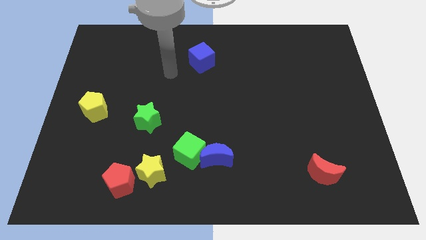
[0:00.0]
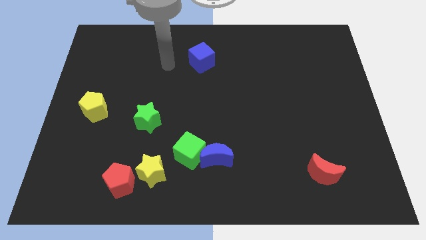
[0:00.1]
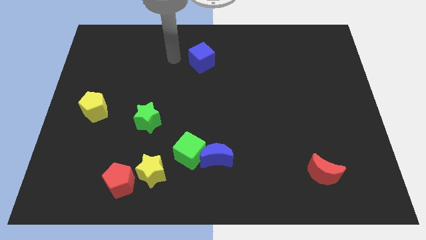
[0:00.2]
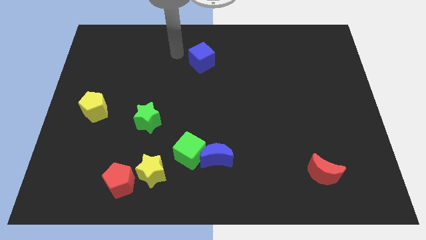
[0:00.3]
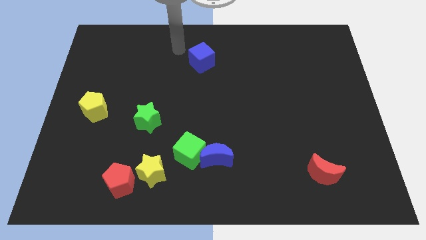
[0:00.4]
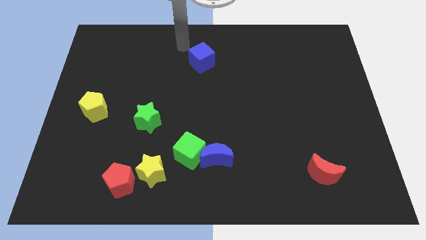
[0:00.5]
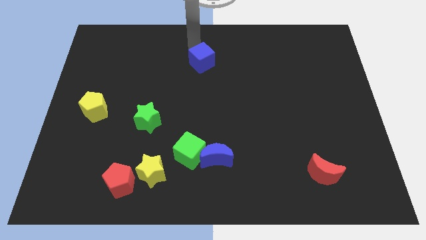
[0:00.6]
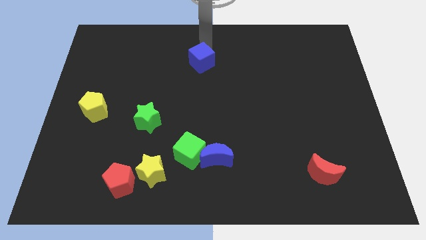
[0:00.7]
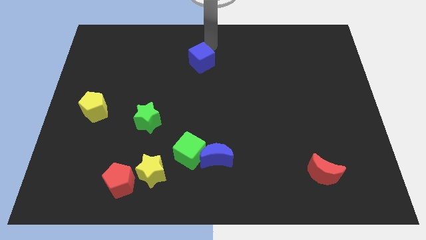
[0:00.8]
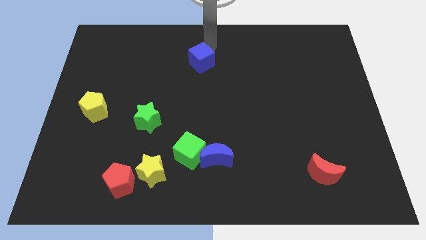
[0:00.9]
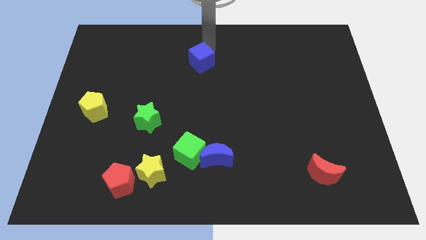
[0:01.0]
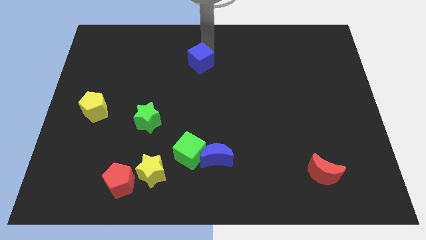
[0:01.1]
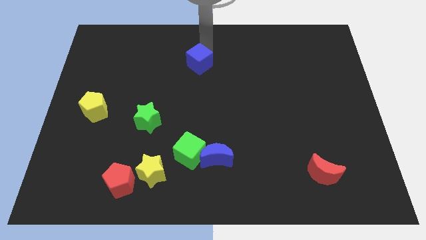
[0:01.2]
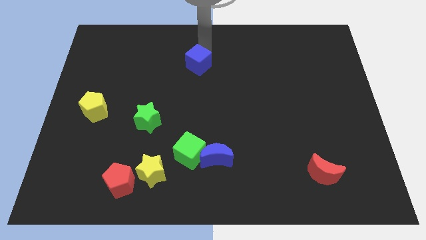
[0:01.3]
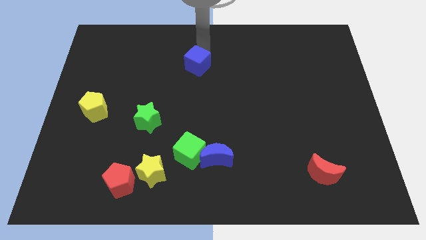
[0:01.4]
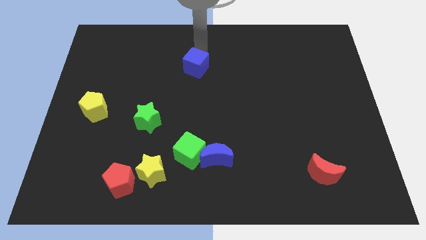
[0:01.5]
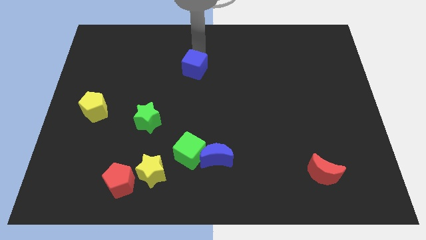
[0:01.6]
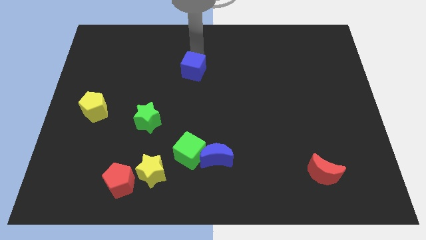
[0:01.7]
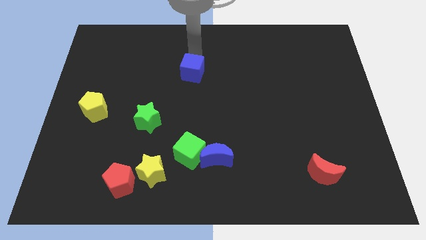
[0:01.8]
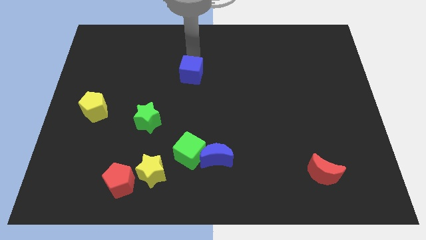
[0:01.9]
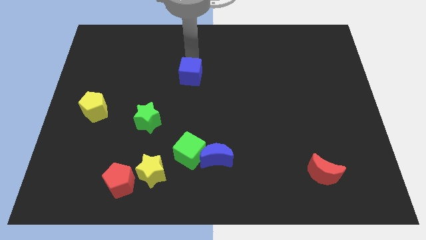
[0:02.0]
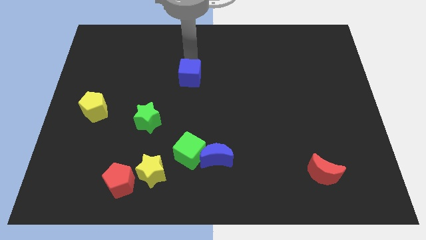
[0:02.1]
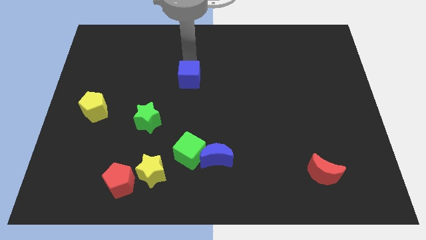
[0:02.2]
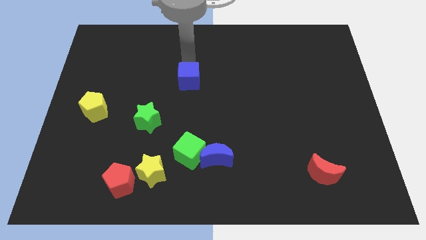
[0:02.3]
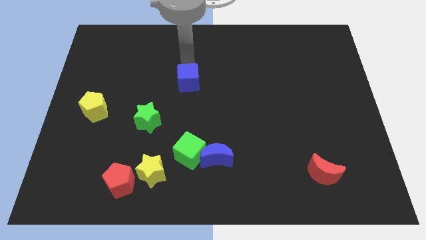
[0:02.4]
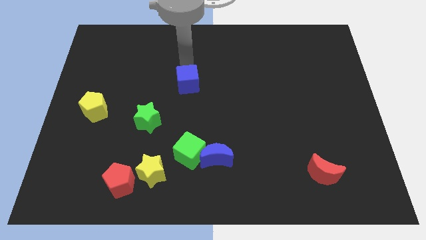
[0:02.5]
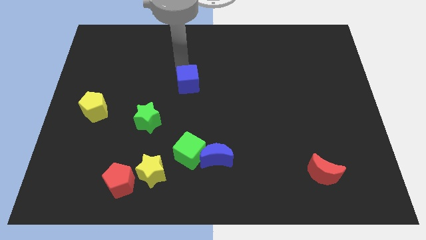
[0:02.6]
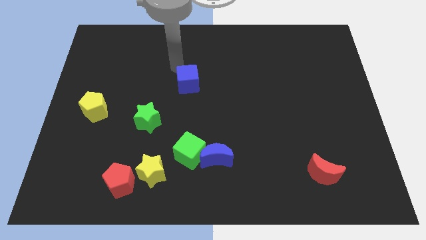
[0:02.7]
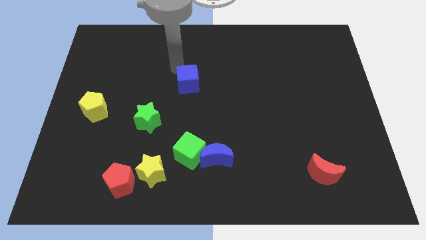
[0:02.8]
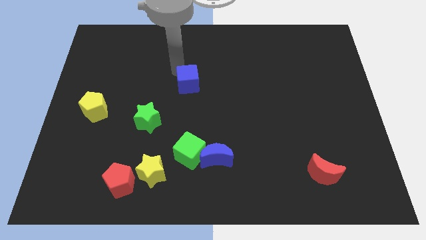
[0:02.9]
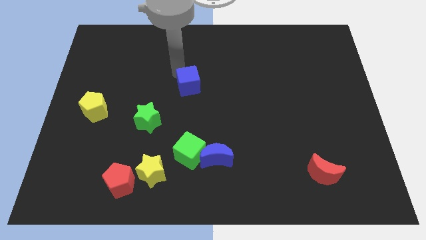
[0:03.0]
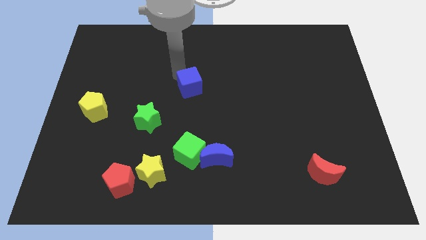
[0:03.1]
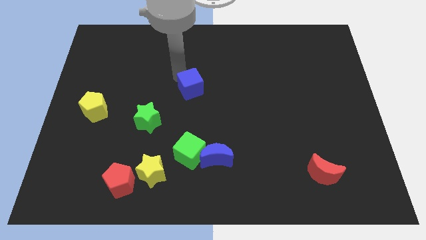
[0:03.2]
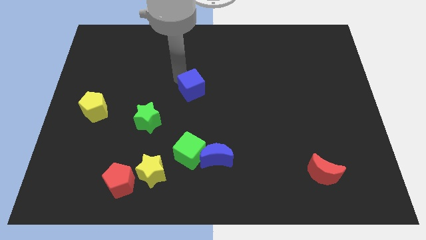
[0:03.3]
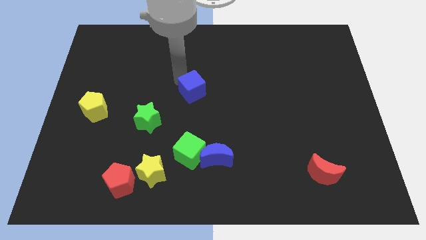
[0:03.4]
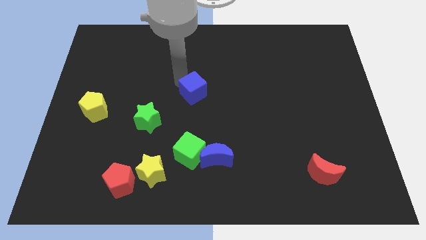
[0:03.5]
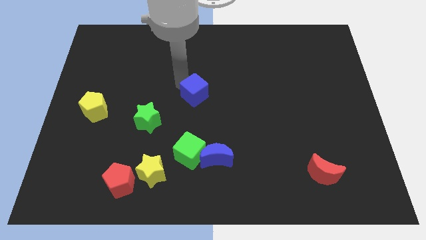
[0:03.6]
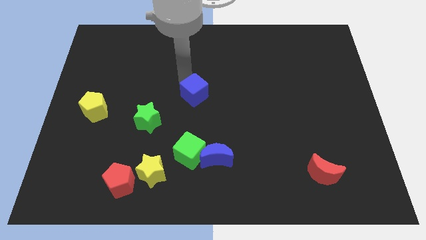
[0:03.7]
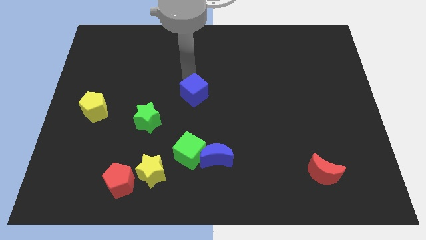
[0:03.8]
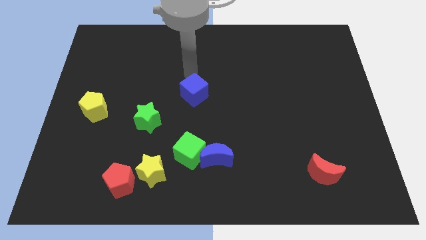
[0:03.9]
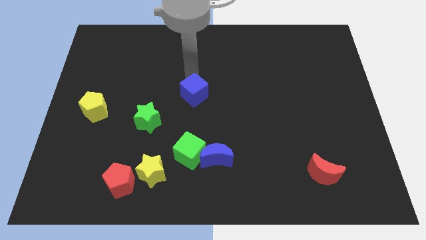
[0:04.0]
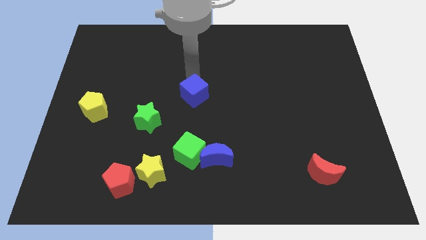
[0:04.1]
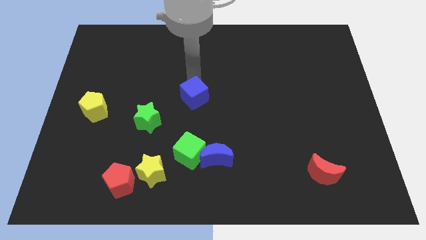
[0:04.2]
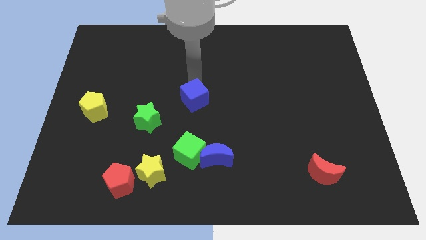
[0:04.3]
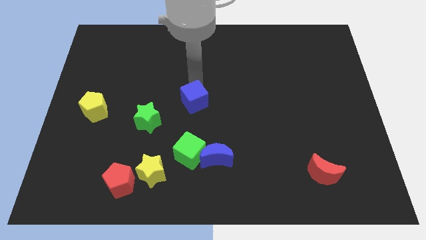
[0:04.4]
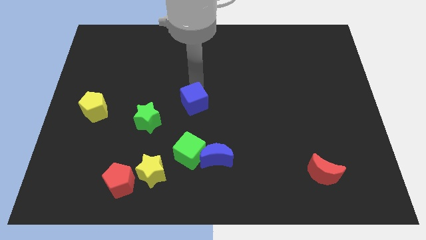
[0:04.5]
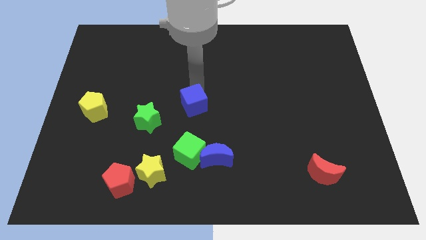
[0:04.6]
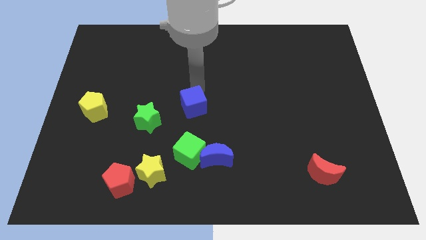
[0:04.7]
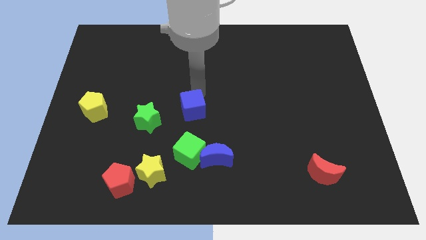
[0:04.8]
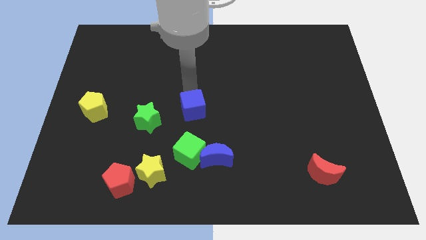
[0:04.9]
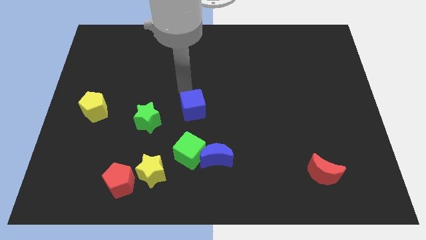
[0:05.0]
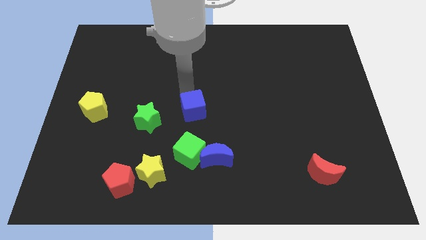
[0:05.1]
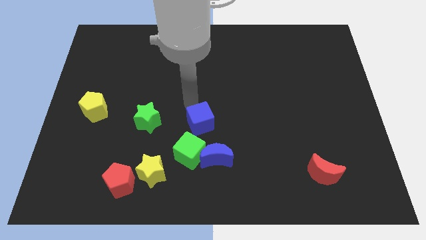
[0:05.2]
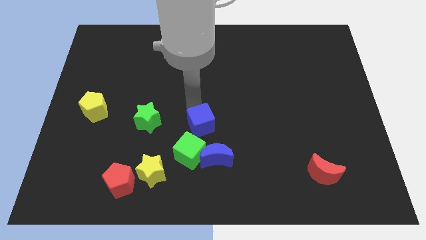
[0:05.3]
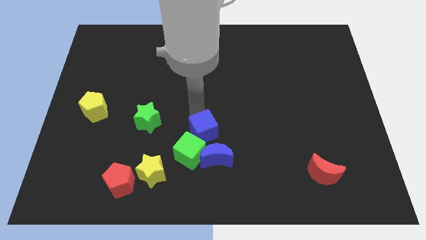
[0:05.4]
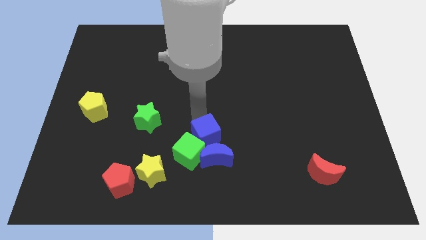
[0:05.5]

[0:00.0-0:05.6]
move the blue cube close to the blue moon

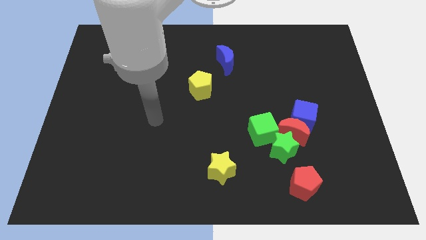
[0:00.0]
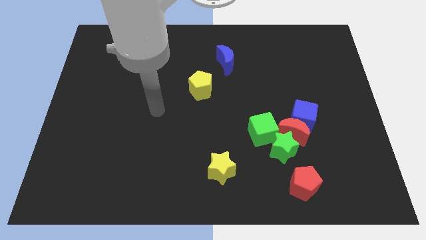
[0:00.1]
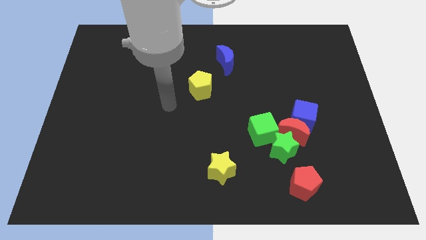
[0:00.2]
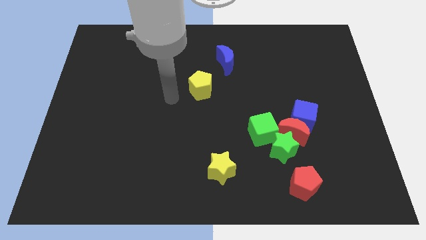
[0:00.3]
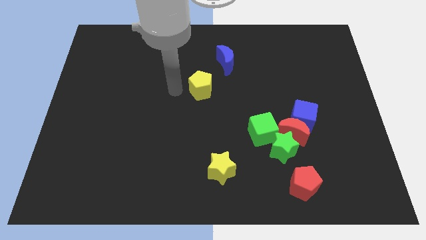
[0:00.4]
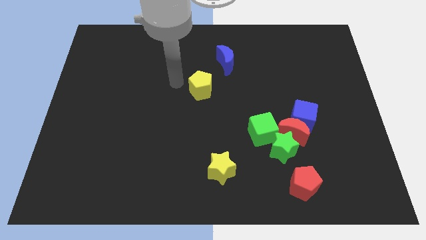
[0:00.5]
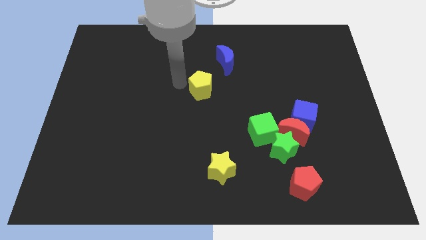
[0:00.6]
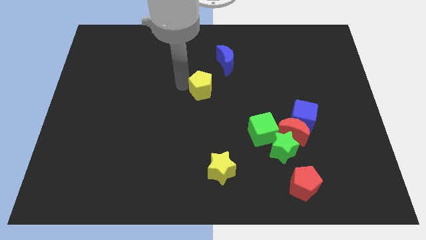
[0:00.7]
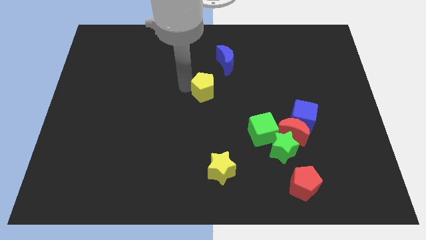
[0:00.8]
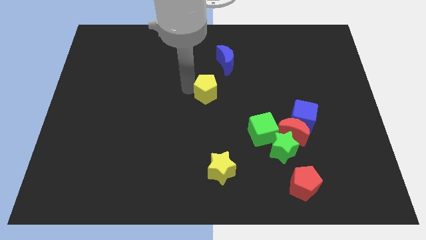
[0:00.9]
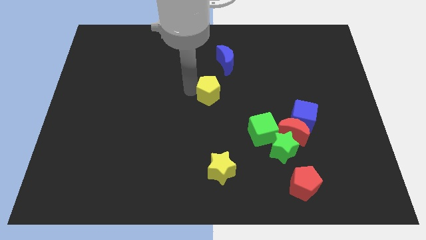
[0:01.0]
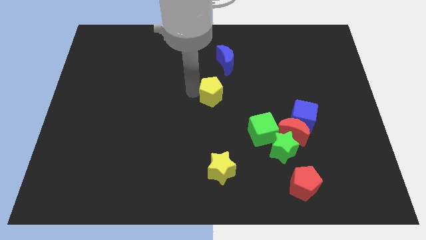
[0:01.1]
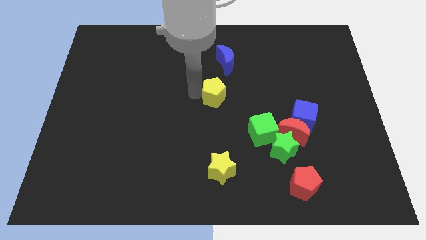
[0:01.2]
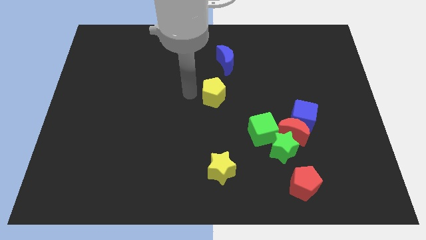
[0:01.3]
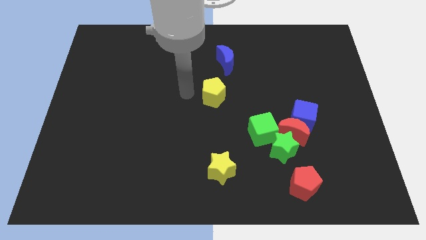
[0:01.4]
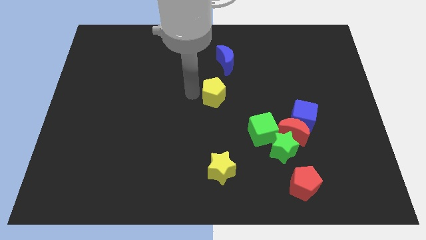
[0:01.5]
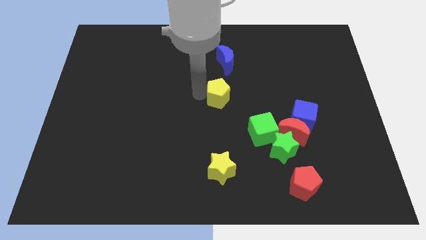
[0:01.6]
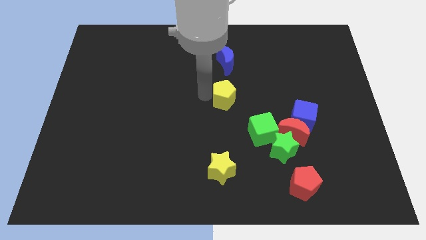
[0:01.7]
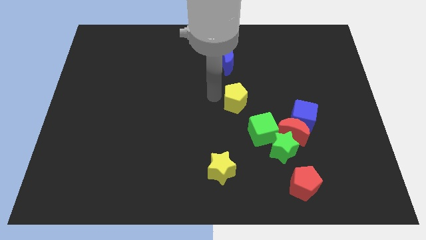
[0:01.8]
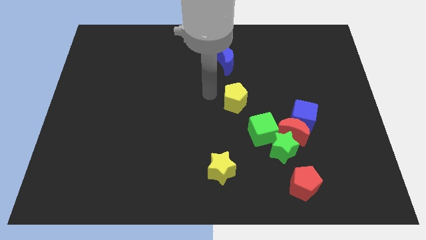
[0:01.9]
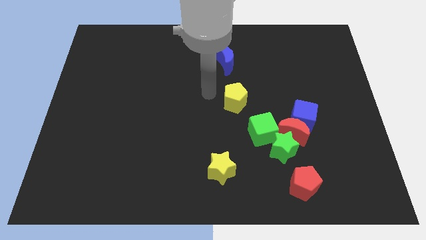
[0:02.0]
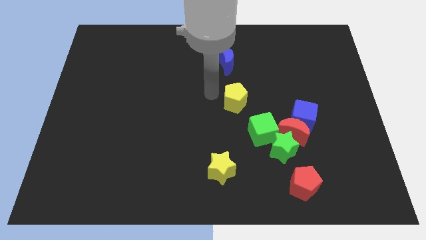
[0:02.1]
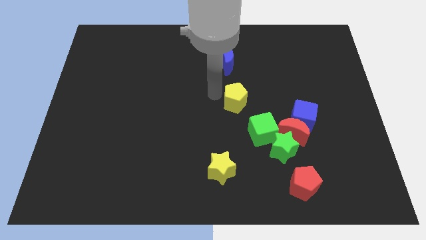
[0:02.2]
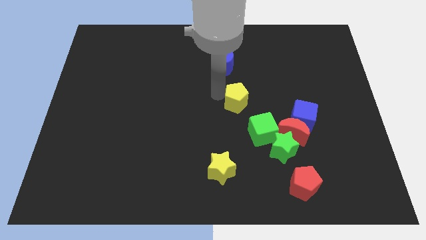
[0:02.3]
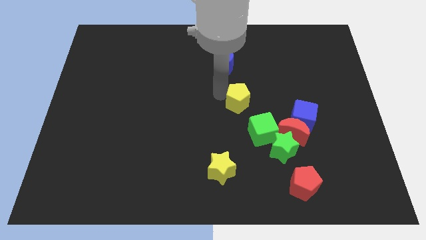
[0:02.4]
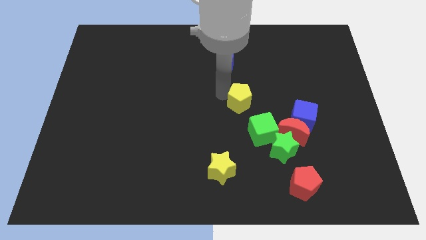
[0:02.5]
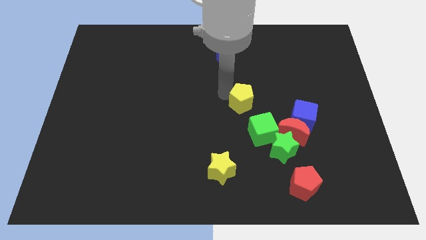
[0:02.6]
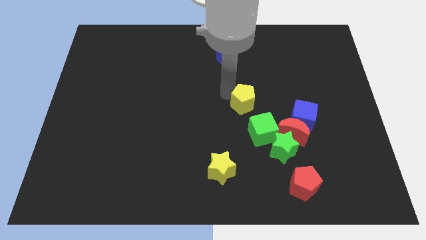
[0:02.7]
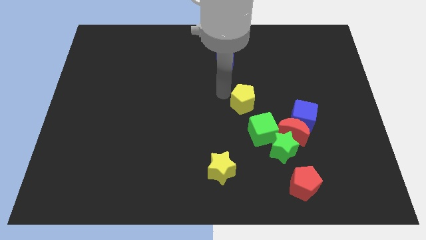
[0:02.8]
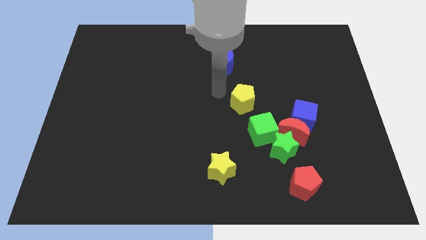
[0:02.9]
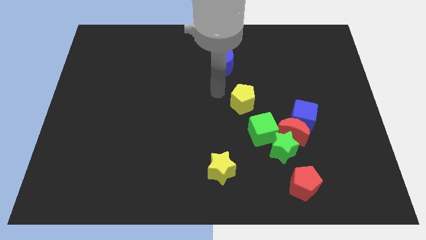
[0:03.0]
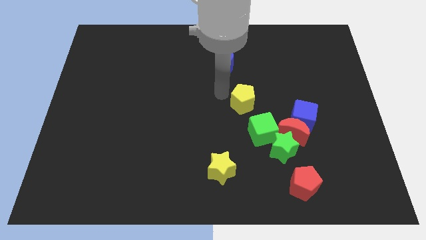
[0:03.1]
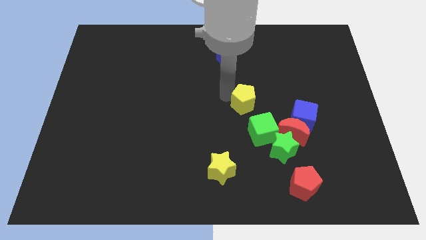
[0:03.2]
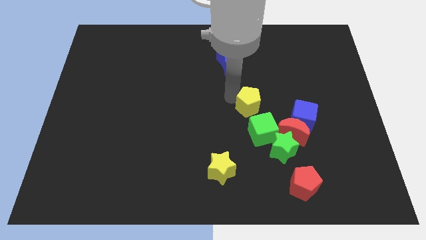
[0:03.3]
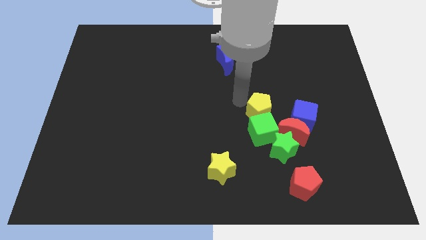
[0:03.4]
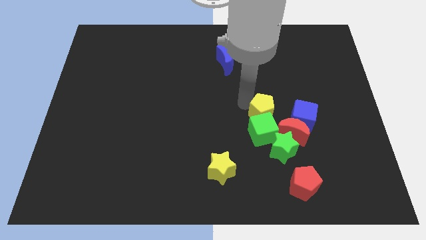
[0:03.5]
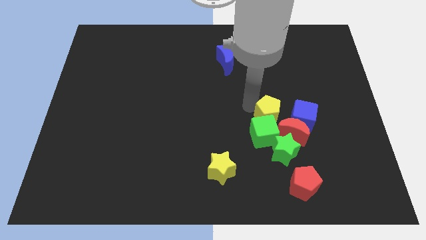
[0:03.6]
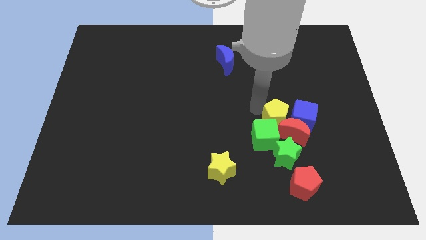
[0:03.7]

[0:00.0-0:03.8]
put the yellow pentagon close to the red moon
